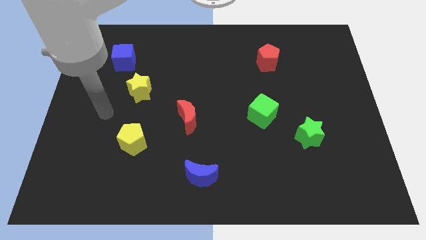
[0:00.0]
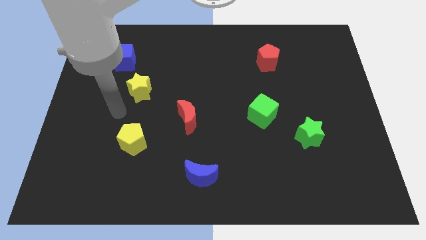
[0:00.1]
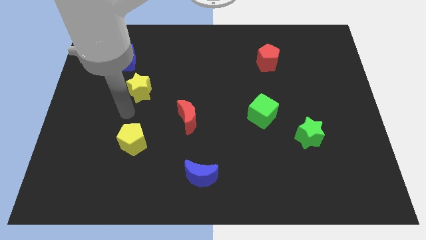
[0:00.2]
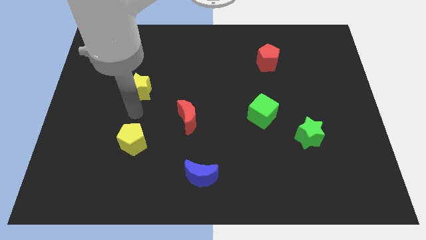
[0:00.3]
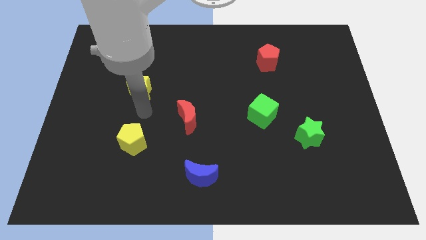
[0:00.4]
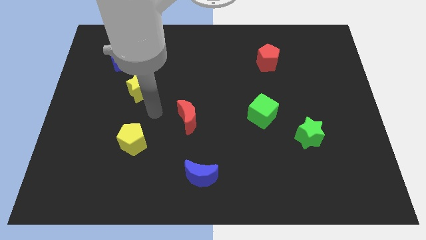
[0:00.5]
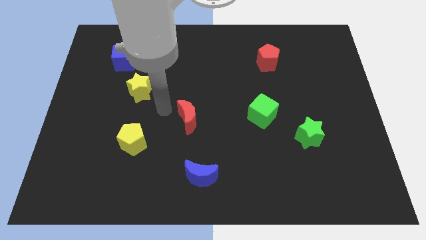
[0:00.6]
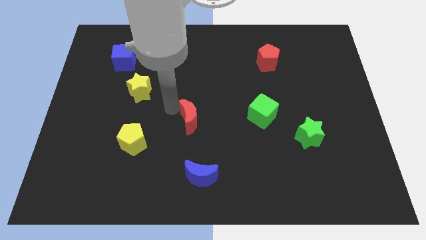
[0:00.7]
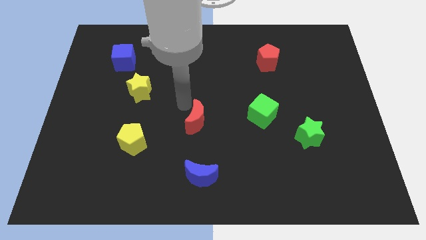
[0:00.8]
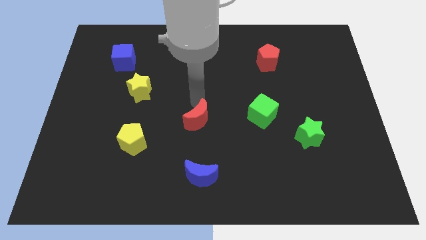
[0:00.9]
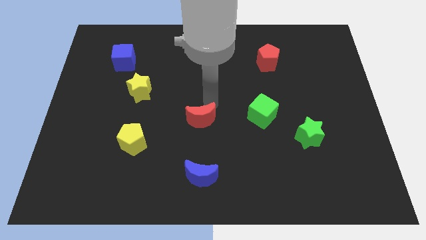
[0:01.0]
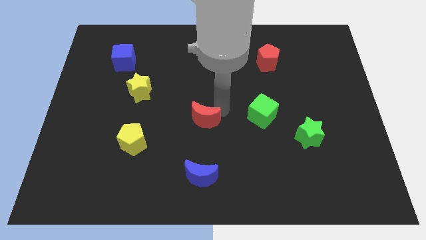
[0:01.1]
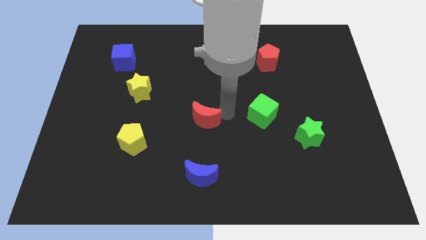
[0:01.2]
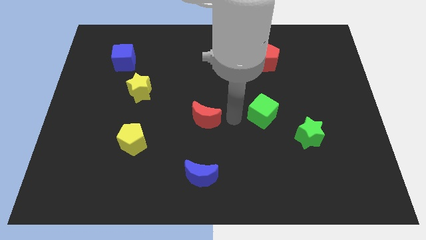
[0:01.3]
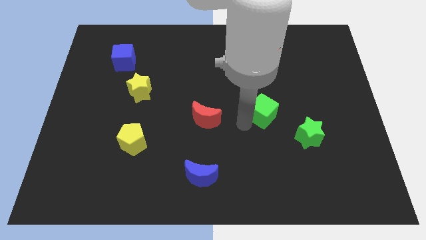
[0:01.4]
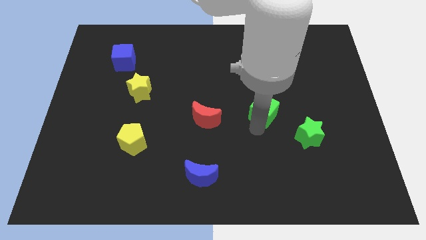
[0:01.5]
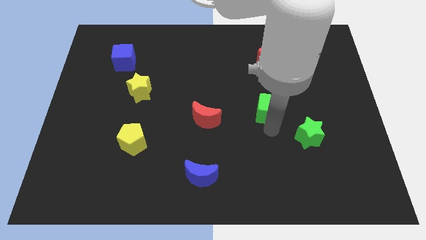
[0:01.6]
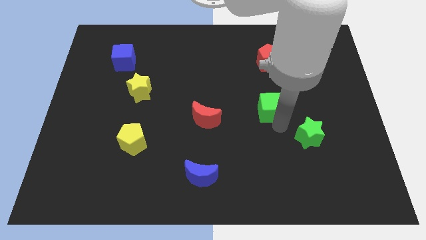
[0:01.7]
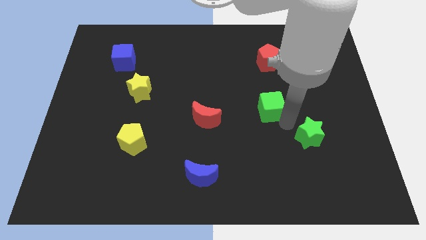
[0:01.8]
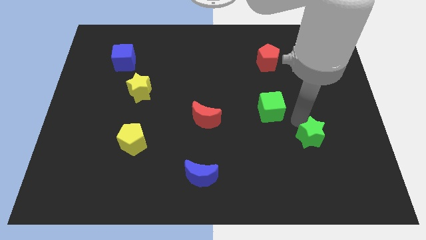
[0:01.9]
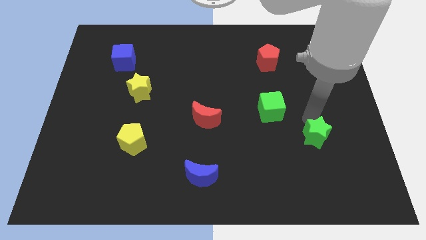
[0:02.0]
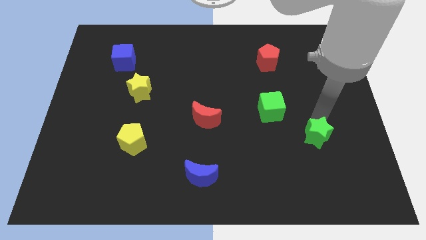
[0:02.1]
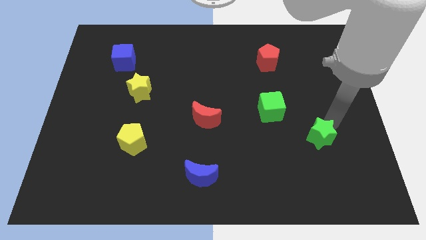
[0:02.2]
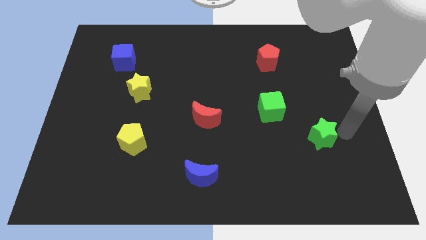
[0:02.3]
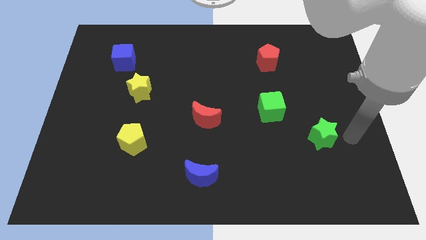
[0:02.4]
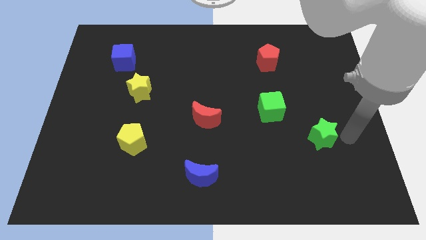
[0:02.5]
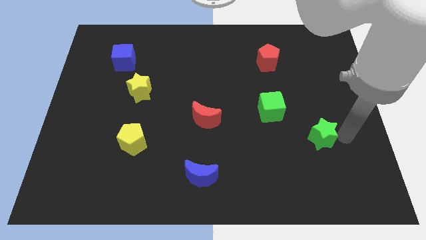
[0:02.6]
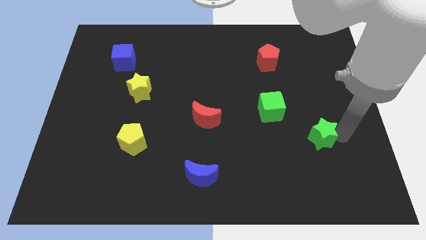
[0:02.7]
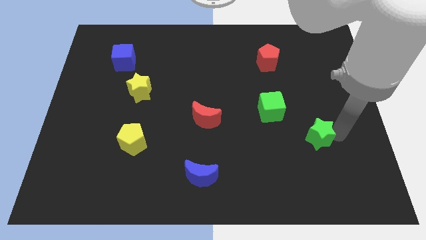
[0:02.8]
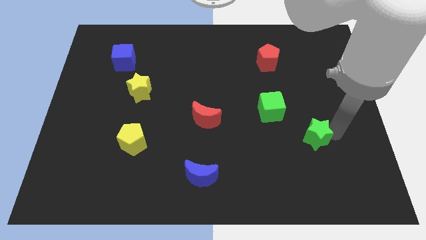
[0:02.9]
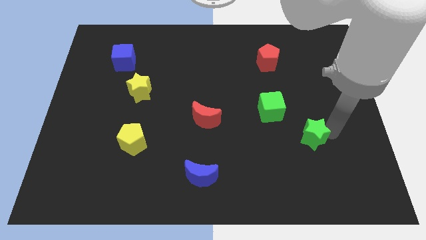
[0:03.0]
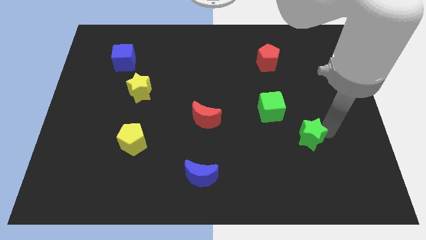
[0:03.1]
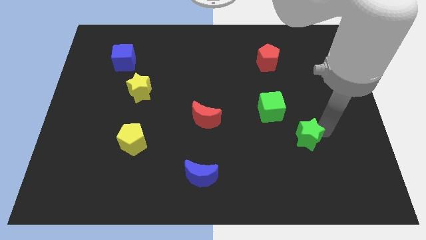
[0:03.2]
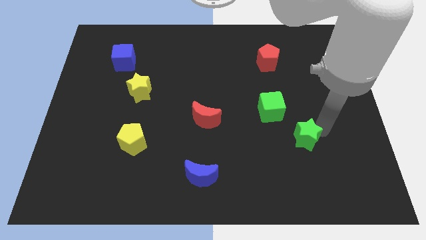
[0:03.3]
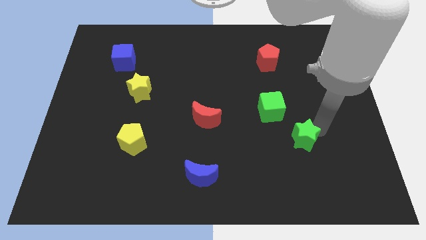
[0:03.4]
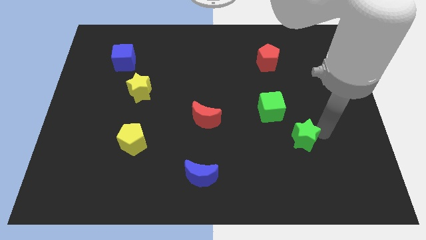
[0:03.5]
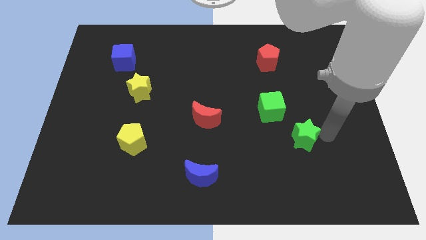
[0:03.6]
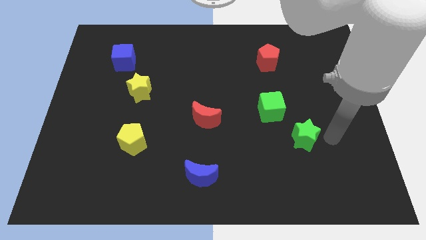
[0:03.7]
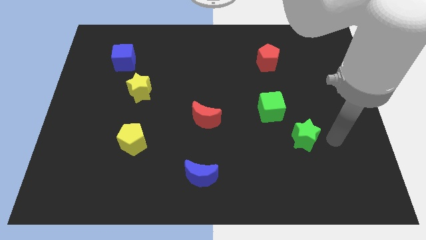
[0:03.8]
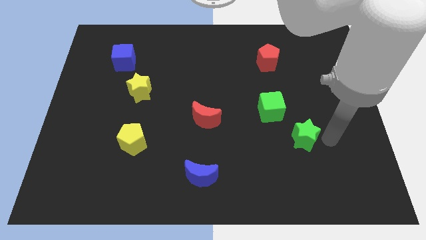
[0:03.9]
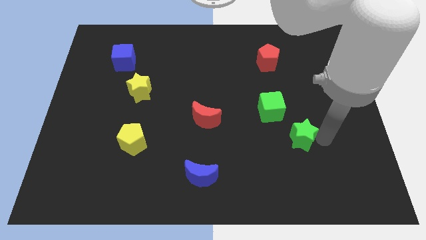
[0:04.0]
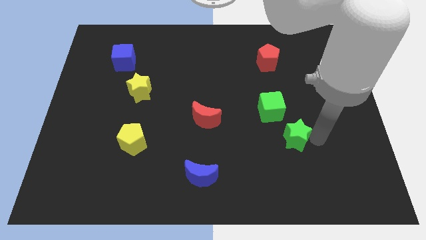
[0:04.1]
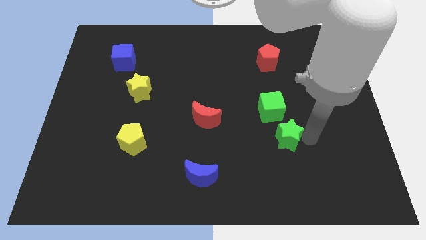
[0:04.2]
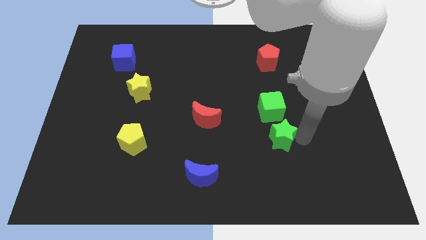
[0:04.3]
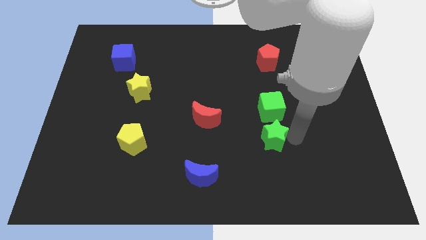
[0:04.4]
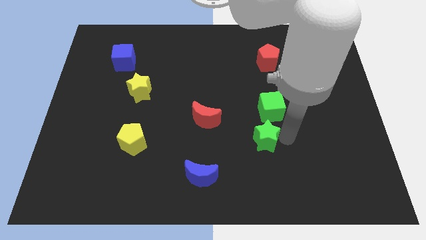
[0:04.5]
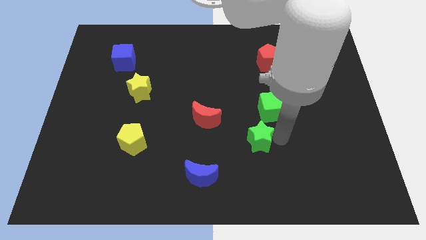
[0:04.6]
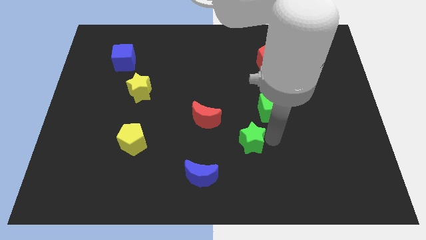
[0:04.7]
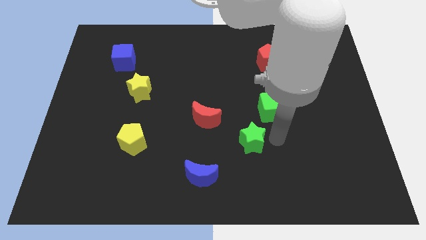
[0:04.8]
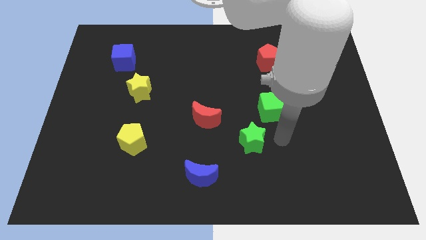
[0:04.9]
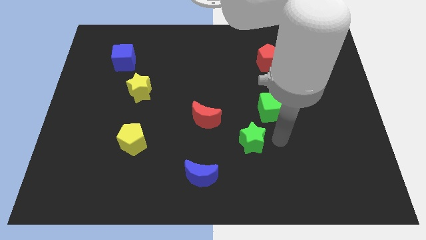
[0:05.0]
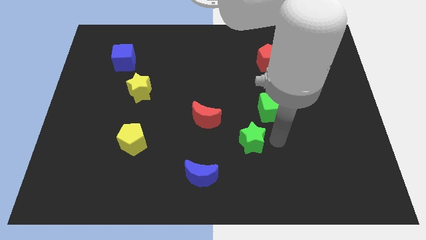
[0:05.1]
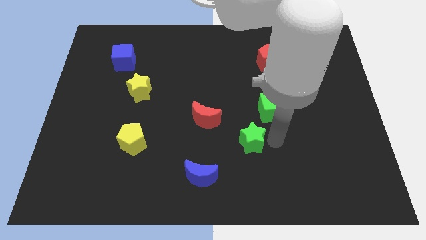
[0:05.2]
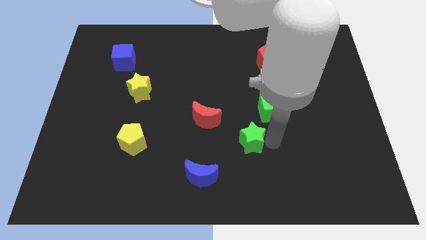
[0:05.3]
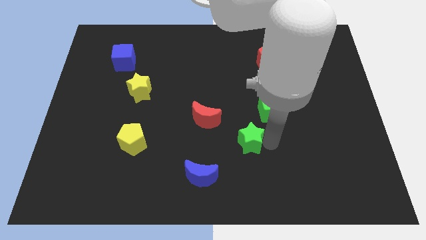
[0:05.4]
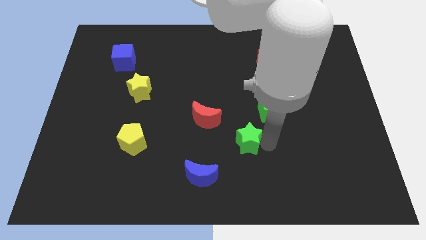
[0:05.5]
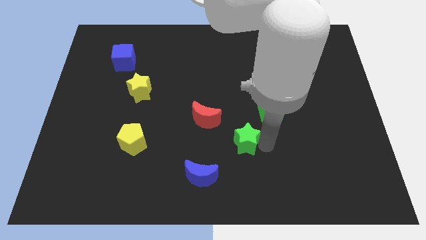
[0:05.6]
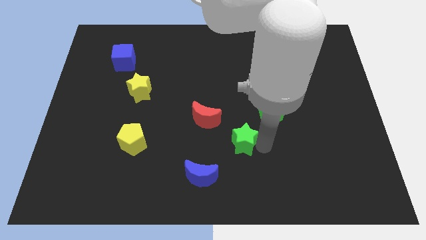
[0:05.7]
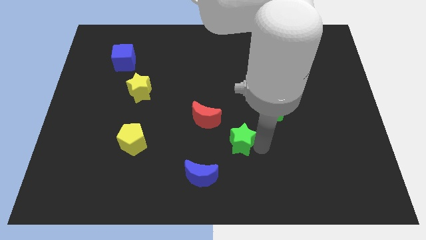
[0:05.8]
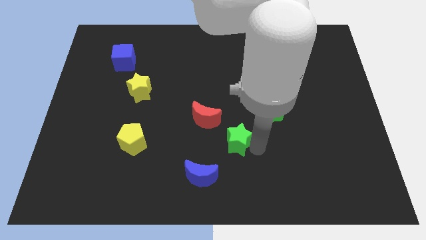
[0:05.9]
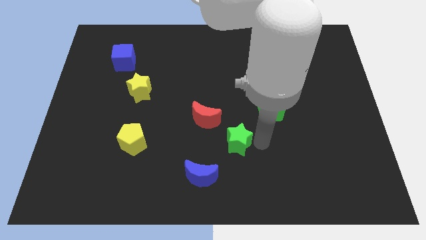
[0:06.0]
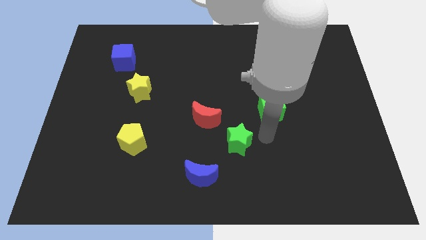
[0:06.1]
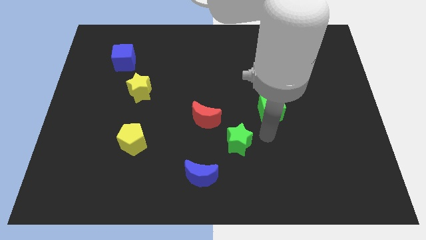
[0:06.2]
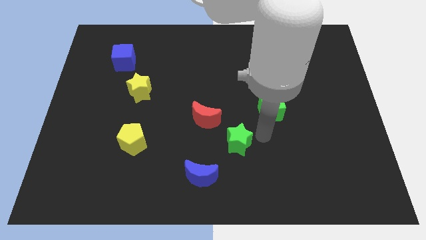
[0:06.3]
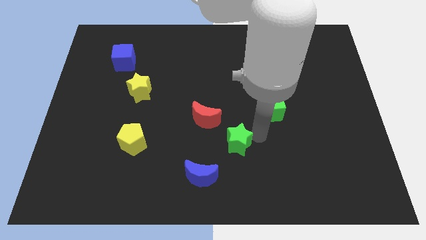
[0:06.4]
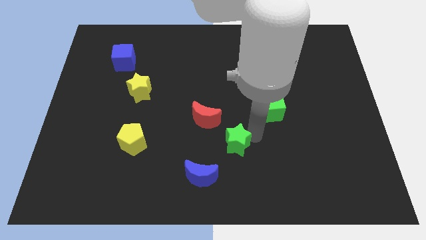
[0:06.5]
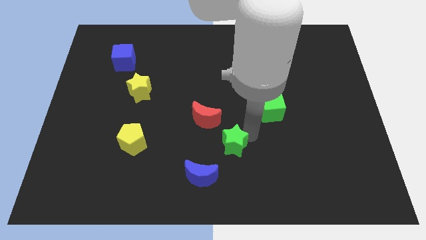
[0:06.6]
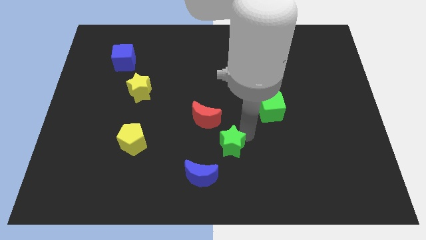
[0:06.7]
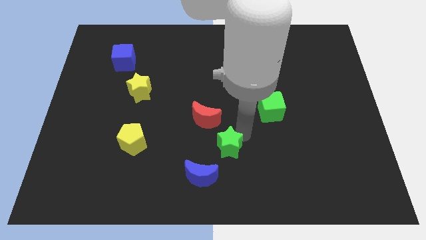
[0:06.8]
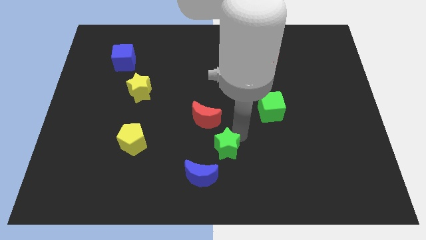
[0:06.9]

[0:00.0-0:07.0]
push the green star to the bottom side of the red moon
